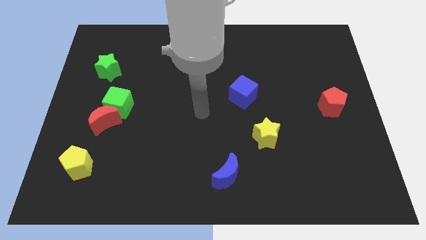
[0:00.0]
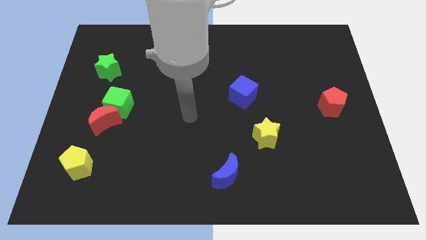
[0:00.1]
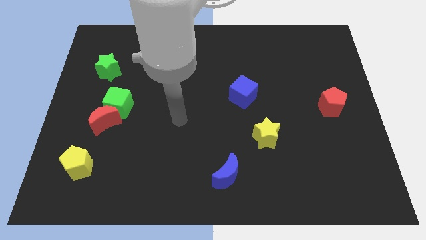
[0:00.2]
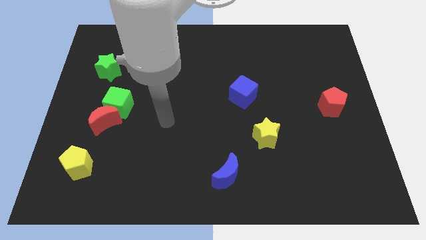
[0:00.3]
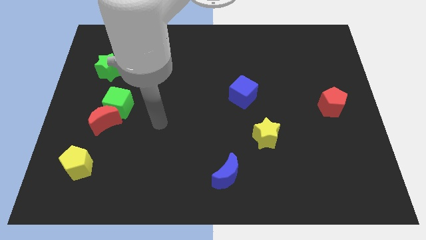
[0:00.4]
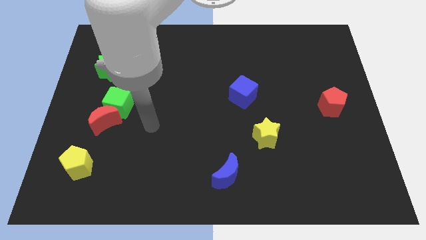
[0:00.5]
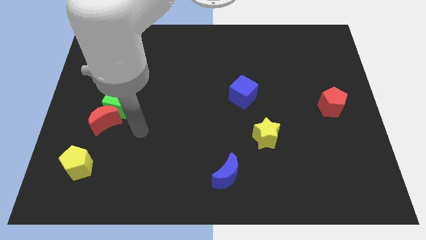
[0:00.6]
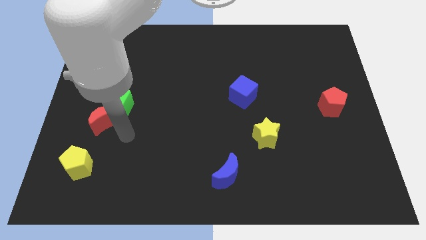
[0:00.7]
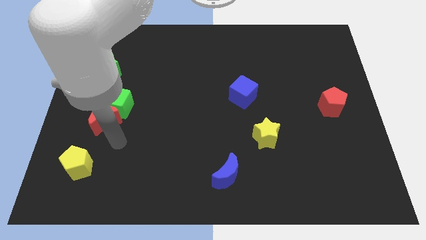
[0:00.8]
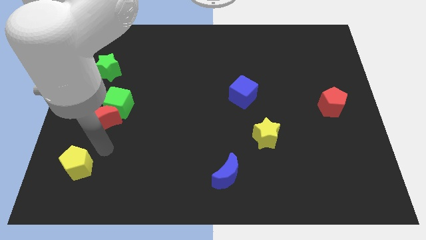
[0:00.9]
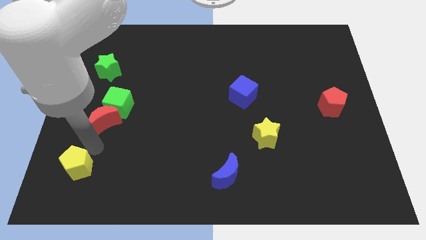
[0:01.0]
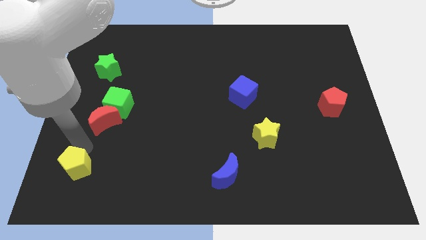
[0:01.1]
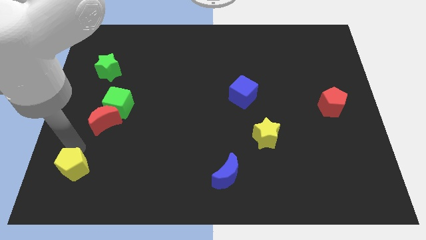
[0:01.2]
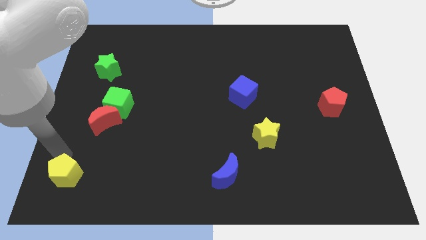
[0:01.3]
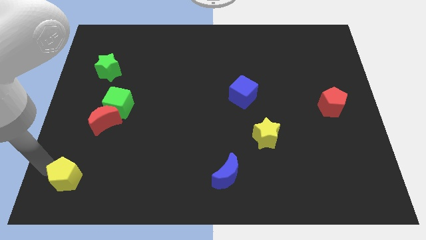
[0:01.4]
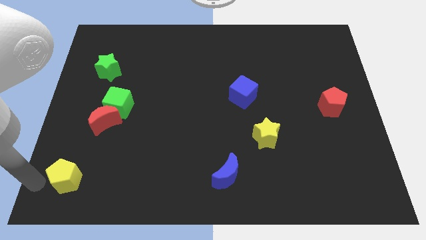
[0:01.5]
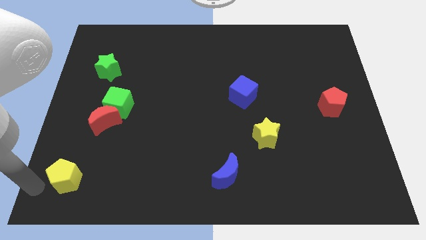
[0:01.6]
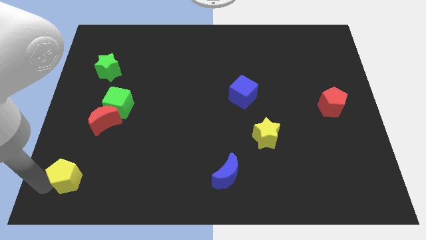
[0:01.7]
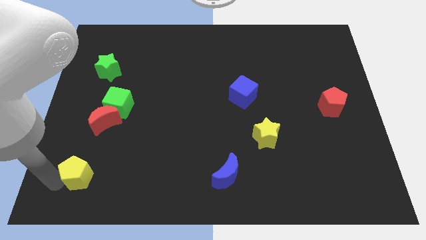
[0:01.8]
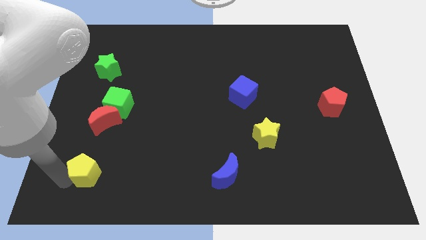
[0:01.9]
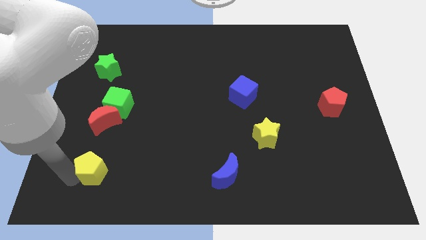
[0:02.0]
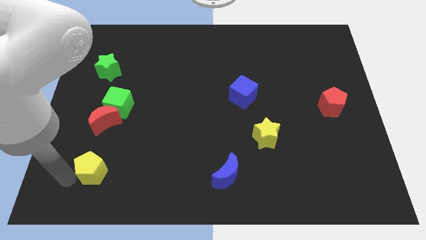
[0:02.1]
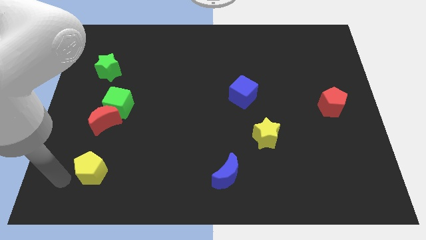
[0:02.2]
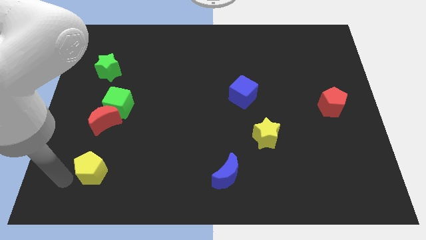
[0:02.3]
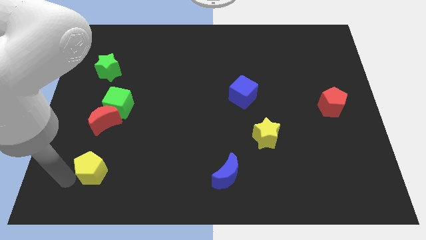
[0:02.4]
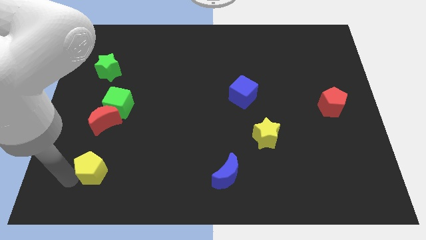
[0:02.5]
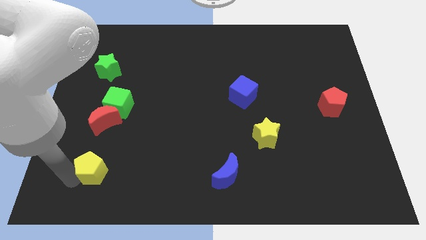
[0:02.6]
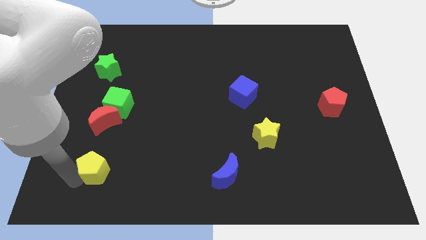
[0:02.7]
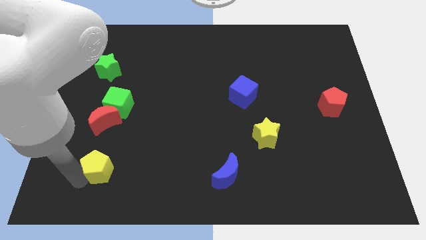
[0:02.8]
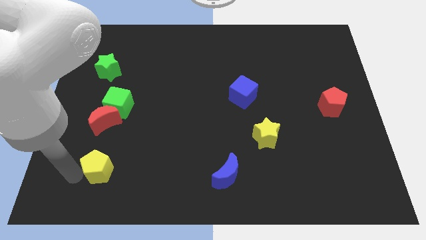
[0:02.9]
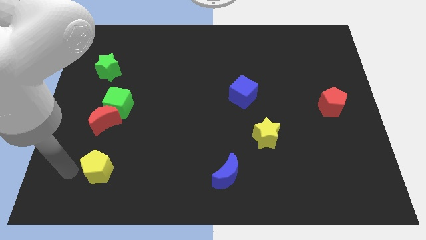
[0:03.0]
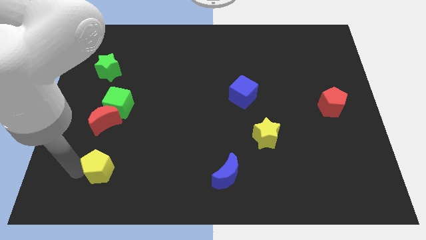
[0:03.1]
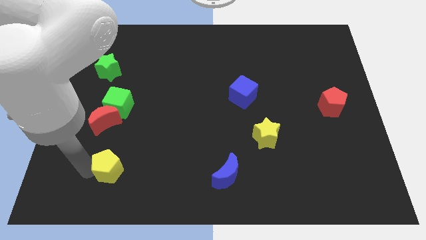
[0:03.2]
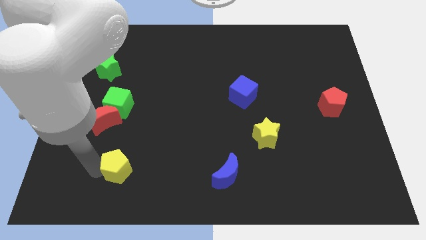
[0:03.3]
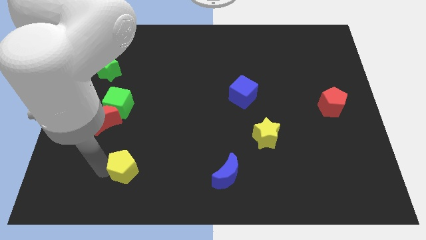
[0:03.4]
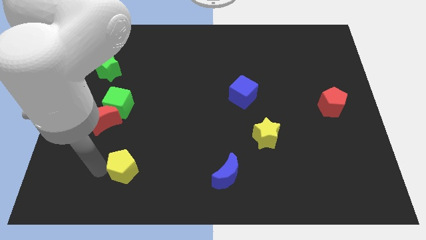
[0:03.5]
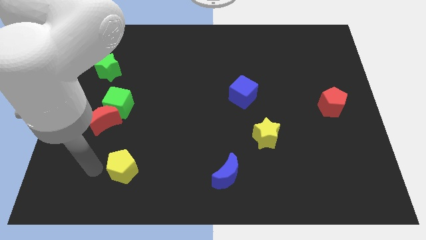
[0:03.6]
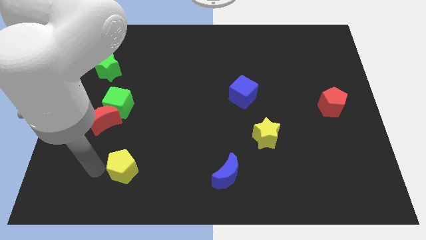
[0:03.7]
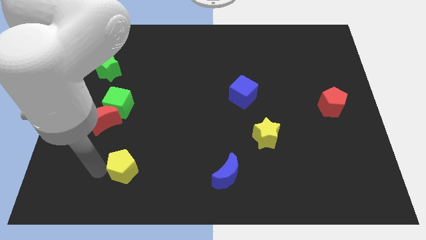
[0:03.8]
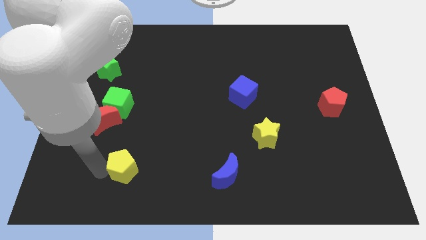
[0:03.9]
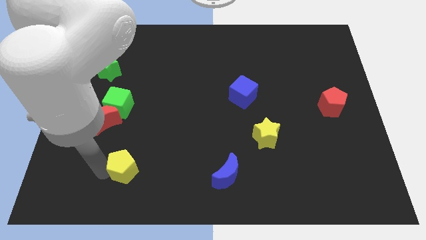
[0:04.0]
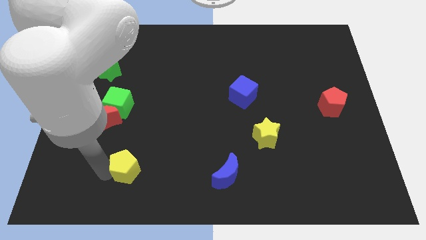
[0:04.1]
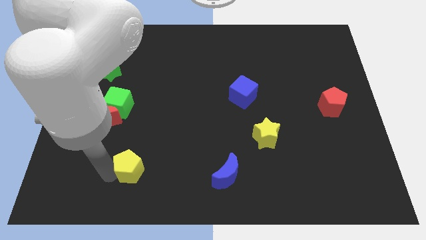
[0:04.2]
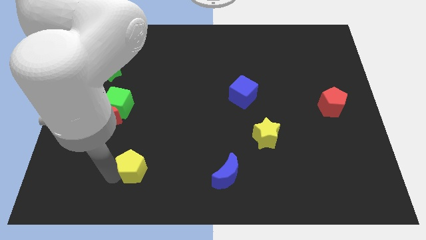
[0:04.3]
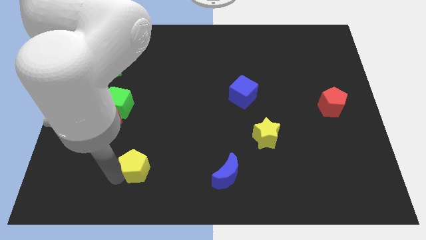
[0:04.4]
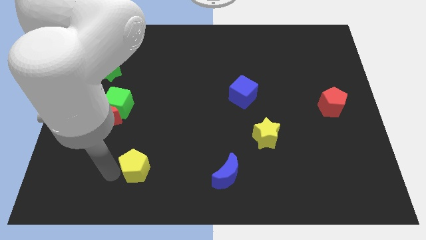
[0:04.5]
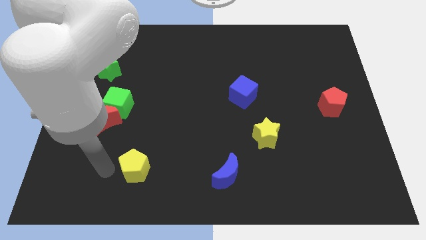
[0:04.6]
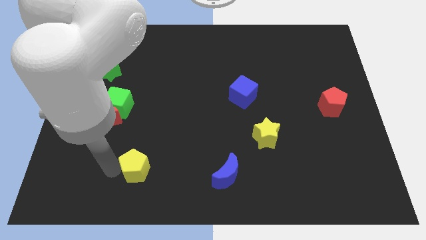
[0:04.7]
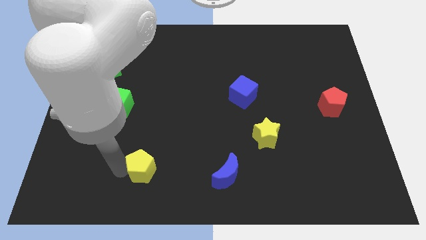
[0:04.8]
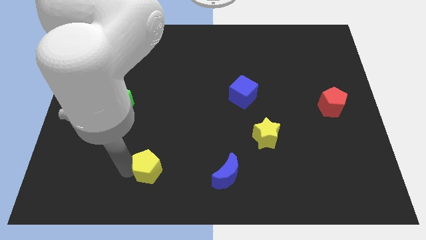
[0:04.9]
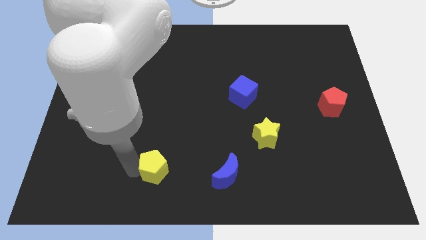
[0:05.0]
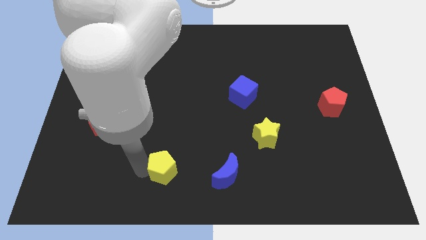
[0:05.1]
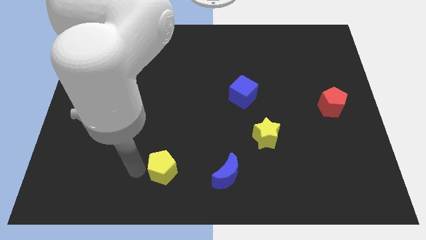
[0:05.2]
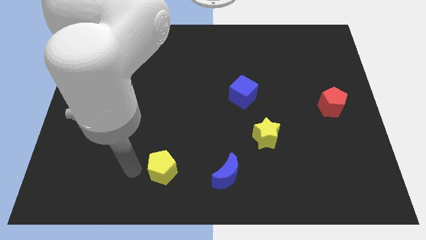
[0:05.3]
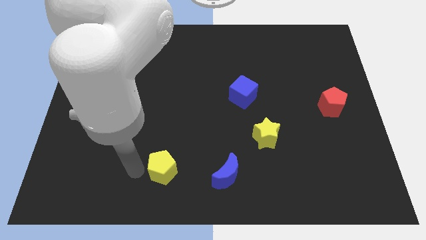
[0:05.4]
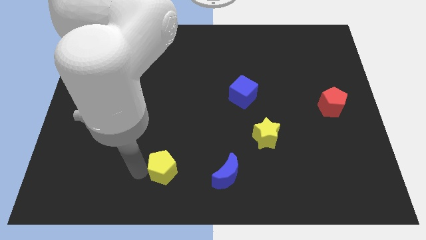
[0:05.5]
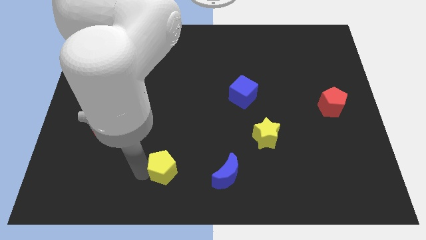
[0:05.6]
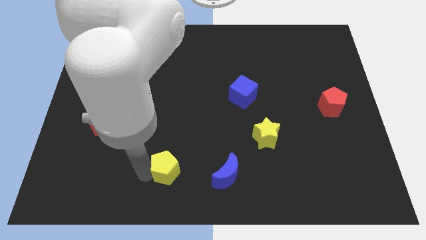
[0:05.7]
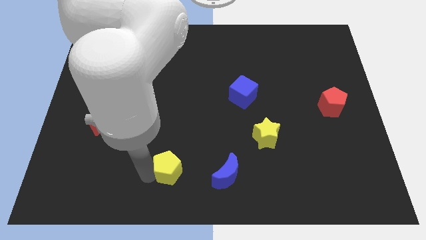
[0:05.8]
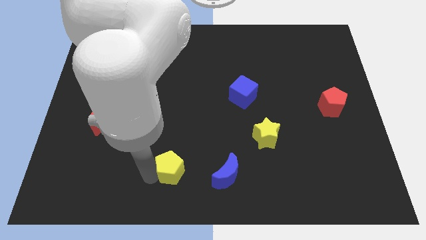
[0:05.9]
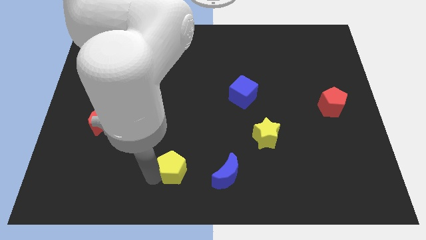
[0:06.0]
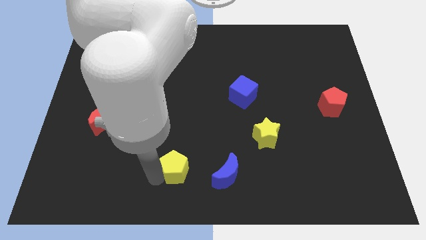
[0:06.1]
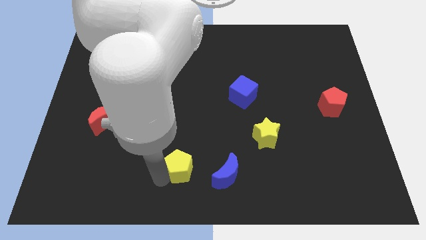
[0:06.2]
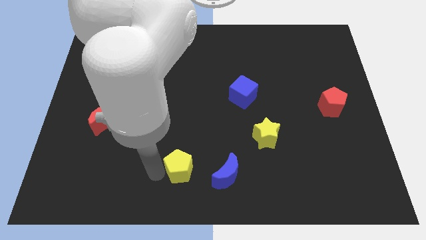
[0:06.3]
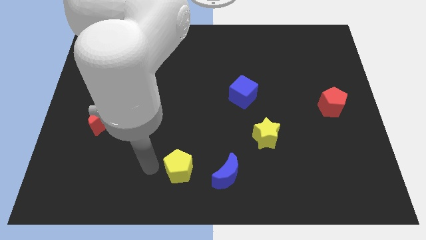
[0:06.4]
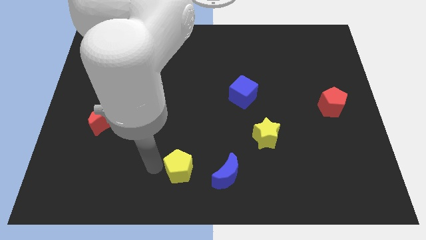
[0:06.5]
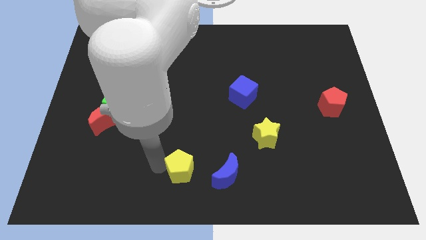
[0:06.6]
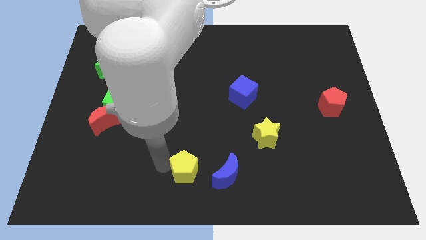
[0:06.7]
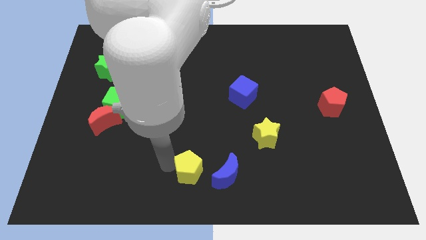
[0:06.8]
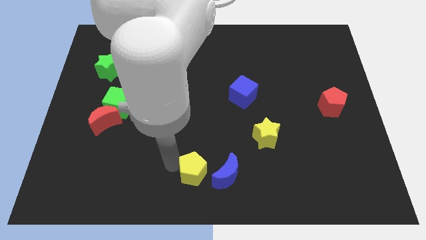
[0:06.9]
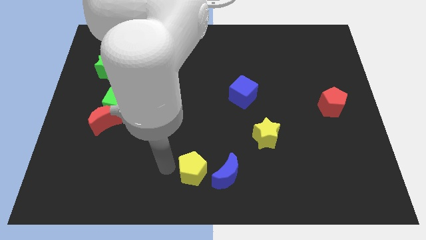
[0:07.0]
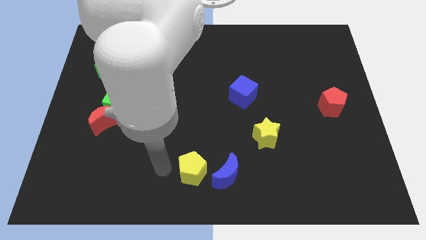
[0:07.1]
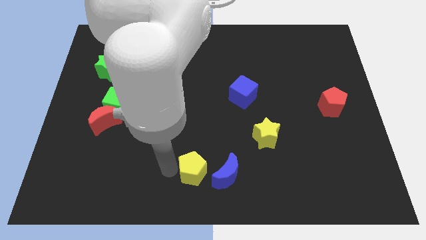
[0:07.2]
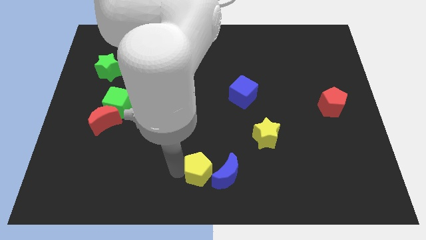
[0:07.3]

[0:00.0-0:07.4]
slide the yellow pentagon to the blue moon
